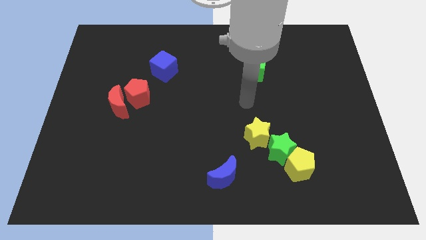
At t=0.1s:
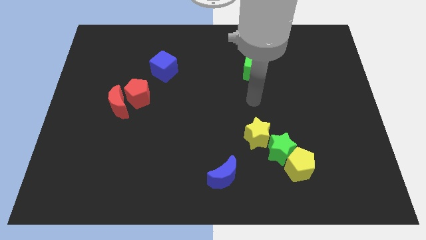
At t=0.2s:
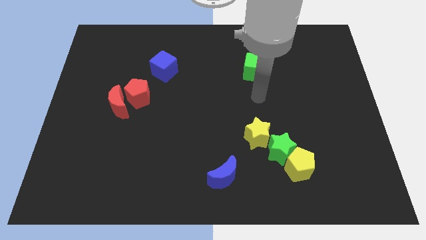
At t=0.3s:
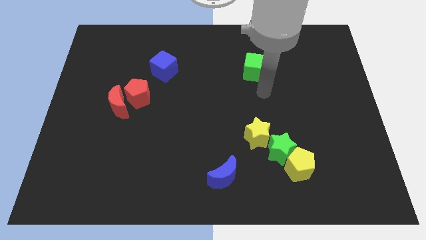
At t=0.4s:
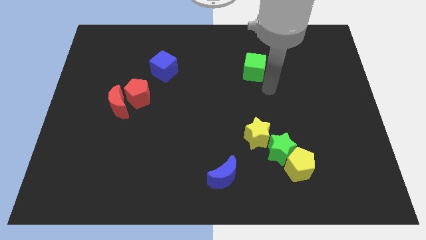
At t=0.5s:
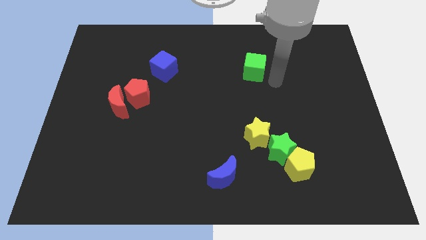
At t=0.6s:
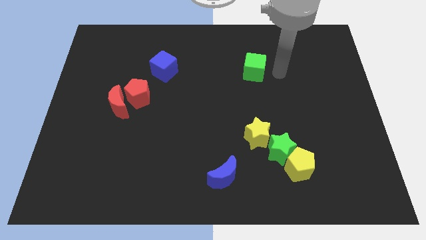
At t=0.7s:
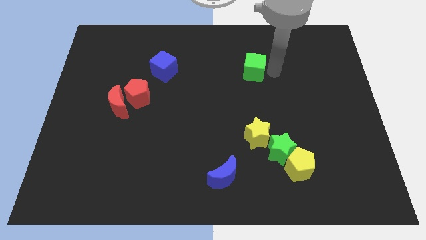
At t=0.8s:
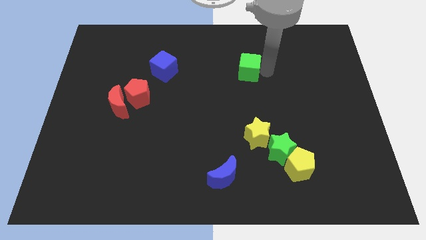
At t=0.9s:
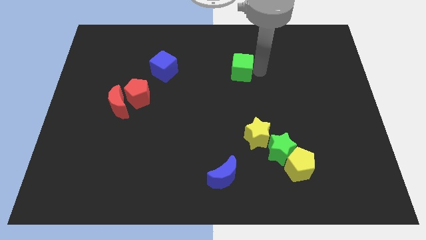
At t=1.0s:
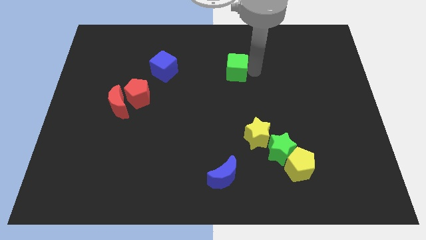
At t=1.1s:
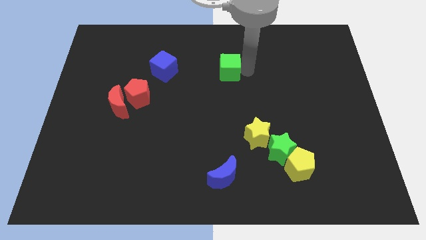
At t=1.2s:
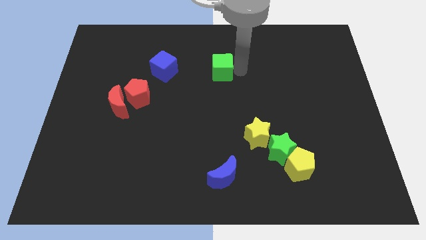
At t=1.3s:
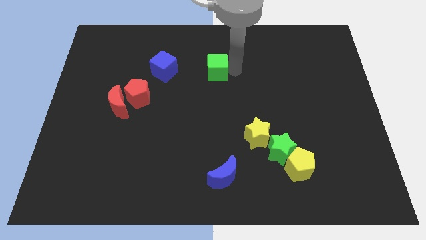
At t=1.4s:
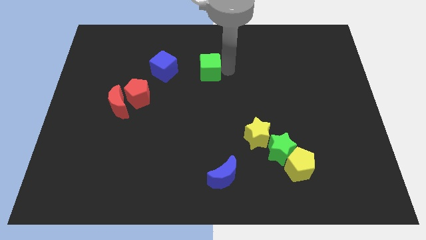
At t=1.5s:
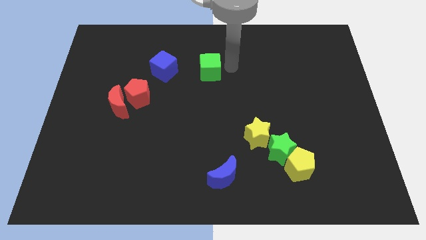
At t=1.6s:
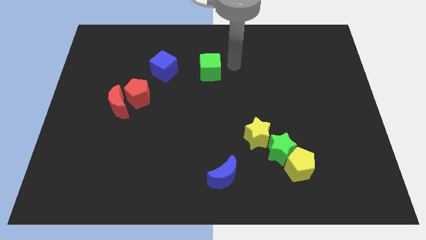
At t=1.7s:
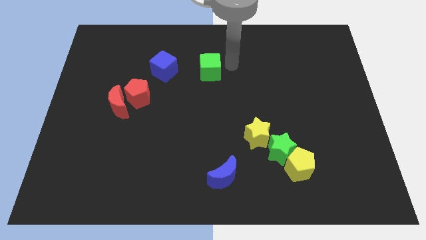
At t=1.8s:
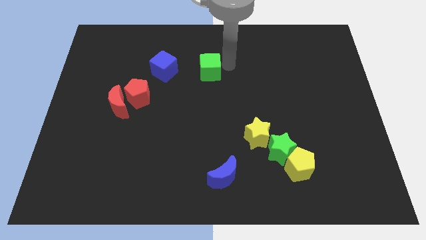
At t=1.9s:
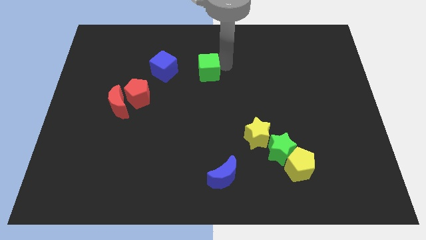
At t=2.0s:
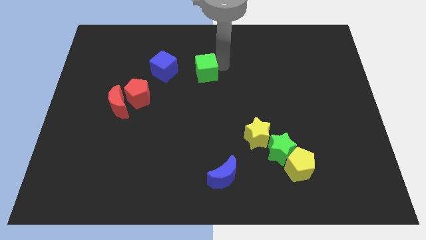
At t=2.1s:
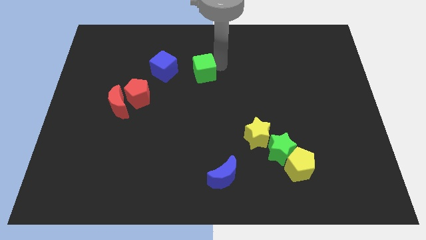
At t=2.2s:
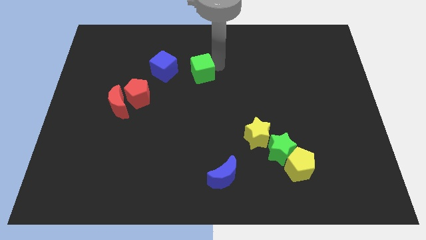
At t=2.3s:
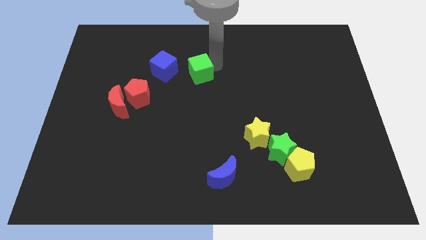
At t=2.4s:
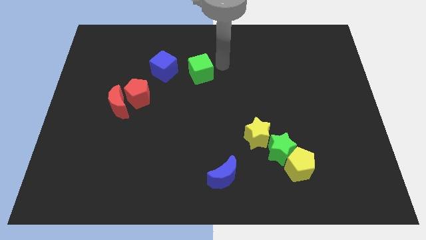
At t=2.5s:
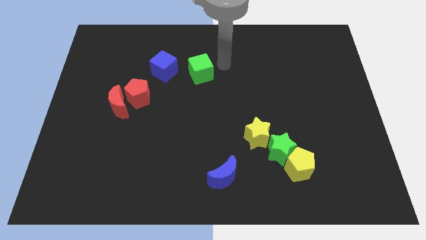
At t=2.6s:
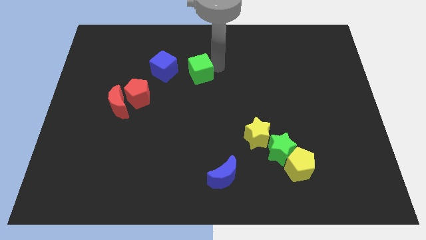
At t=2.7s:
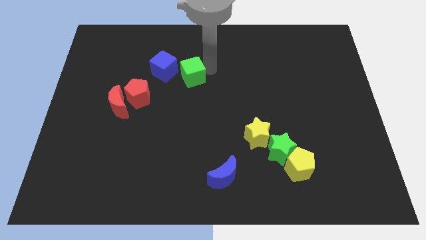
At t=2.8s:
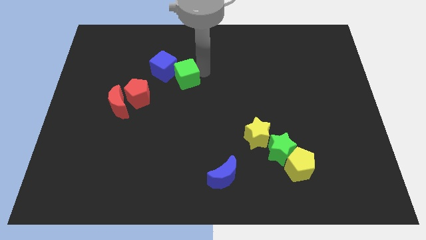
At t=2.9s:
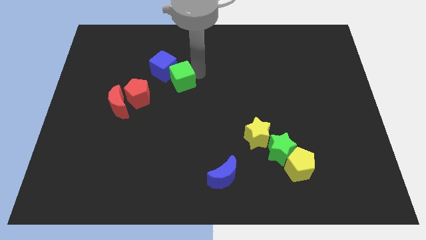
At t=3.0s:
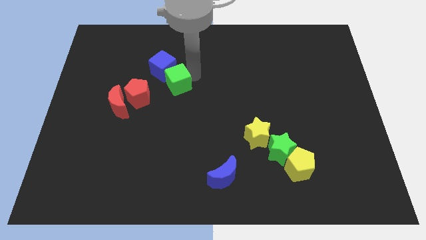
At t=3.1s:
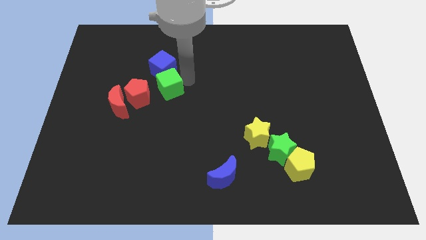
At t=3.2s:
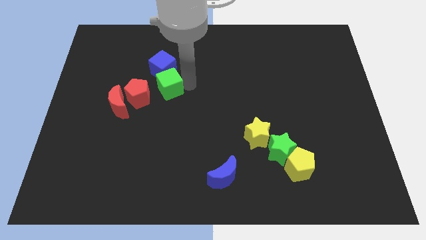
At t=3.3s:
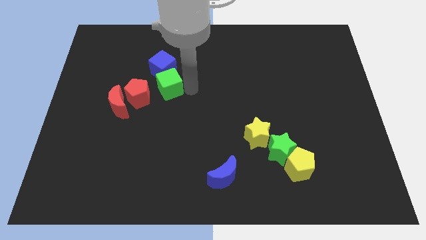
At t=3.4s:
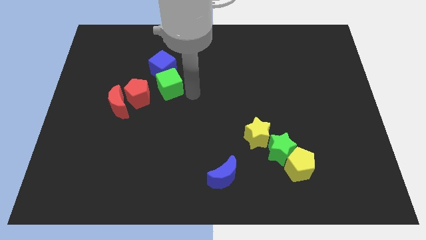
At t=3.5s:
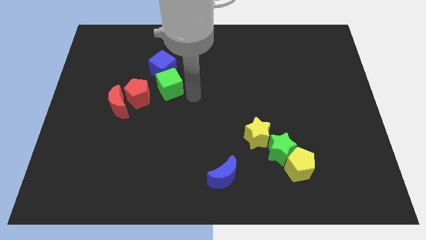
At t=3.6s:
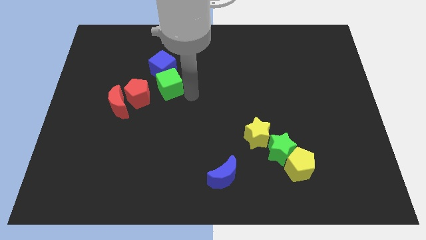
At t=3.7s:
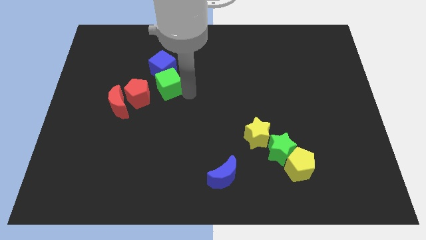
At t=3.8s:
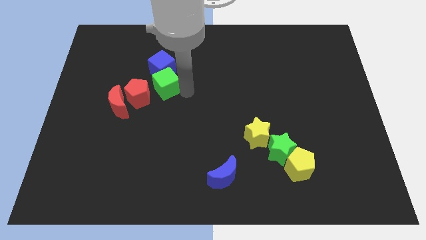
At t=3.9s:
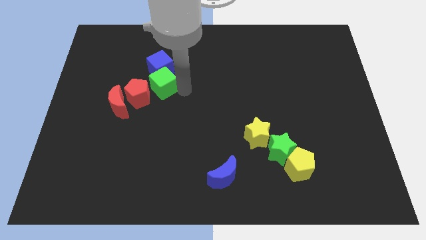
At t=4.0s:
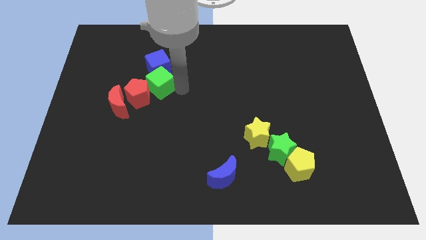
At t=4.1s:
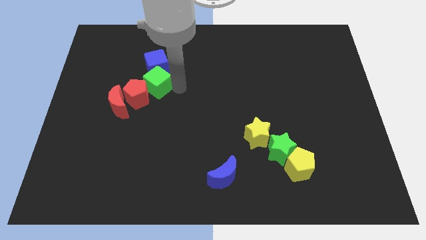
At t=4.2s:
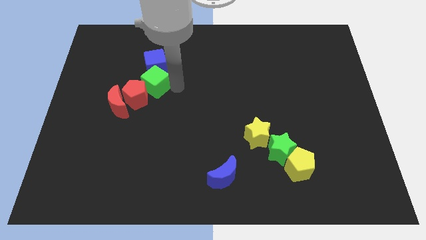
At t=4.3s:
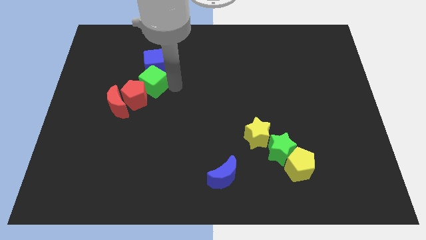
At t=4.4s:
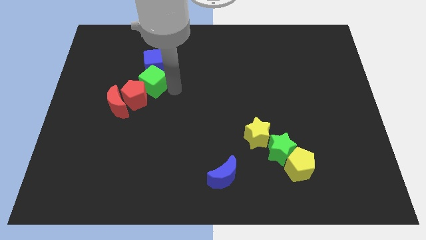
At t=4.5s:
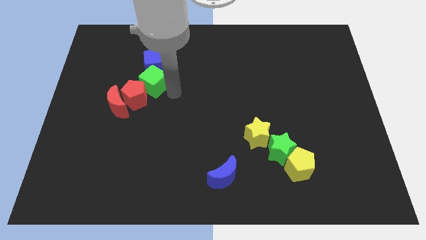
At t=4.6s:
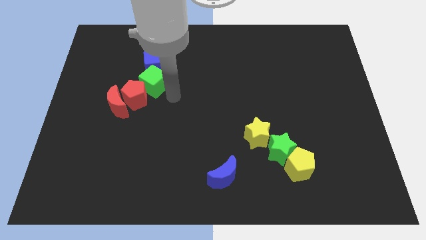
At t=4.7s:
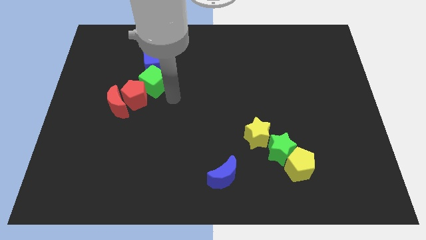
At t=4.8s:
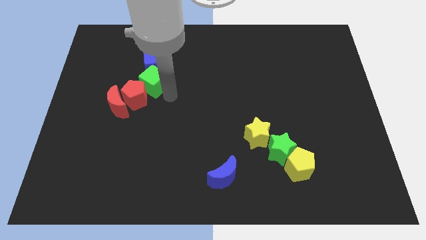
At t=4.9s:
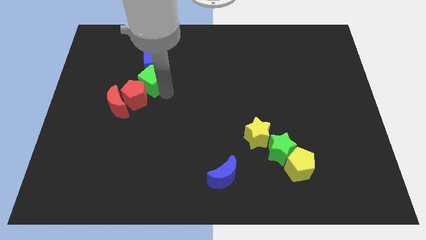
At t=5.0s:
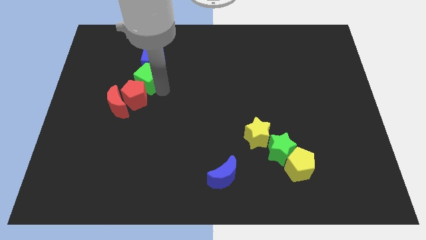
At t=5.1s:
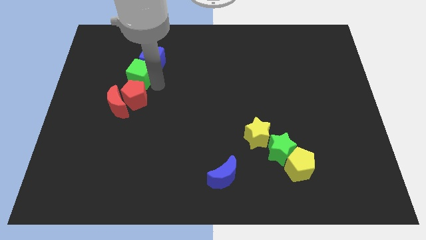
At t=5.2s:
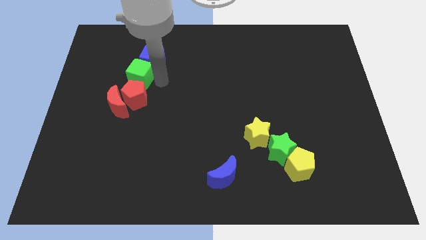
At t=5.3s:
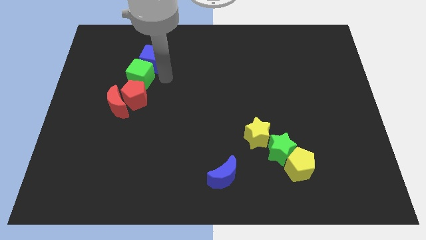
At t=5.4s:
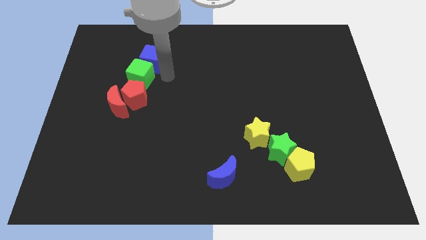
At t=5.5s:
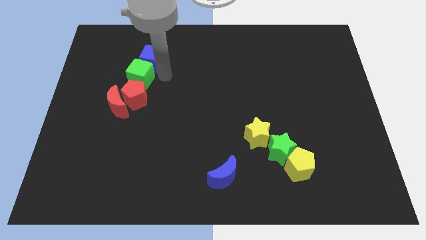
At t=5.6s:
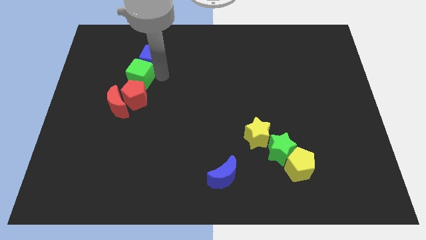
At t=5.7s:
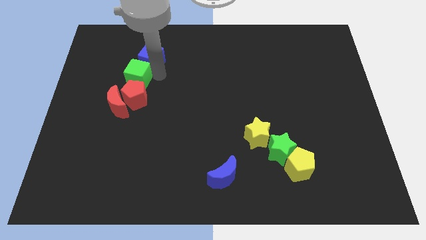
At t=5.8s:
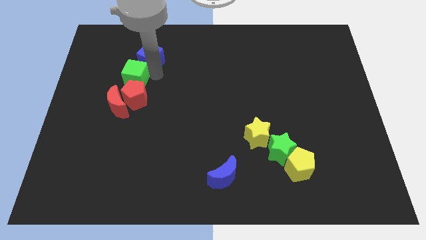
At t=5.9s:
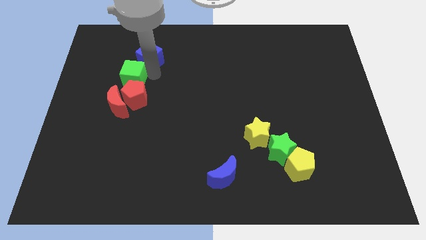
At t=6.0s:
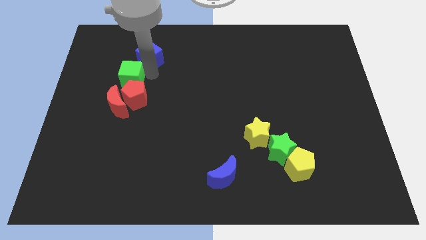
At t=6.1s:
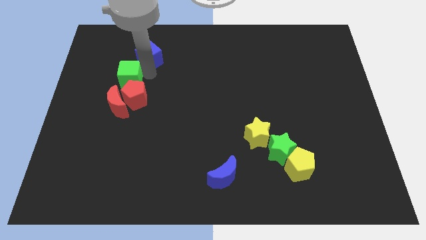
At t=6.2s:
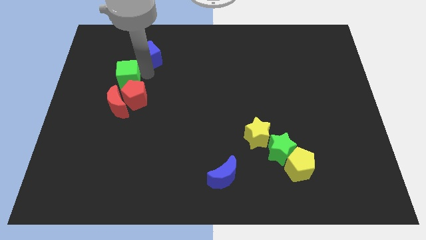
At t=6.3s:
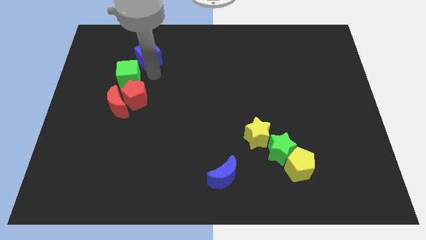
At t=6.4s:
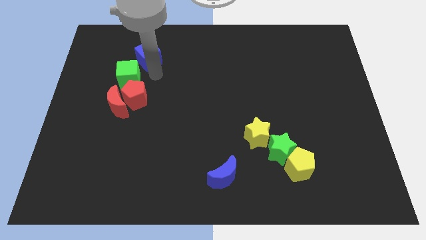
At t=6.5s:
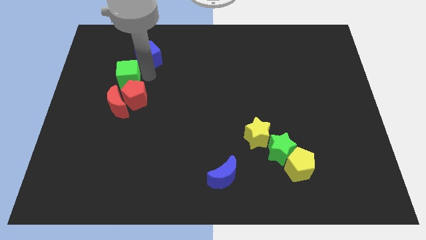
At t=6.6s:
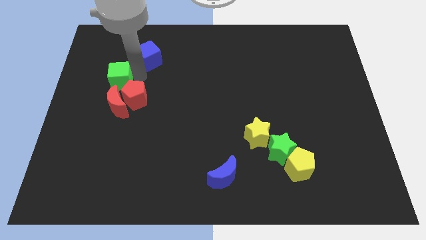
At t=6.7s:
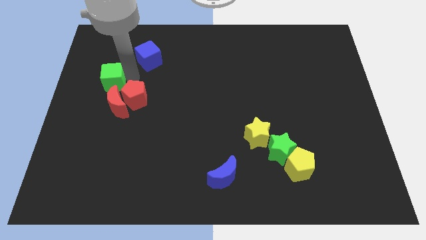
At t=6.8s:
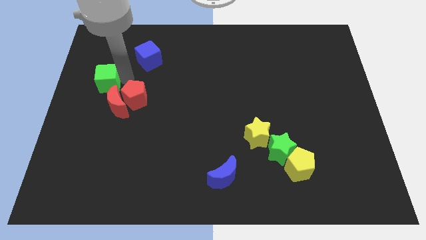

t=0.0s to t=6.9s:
put the green cube to the center left
